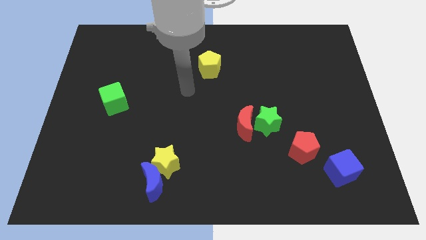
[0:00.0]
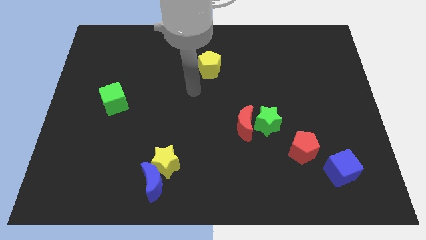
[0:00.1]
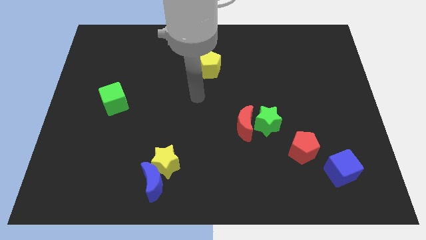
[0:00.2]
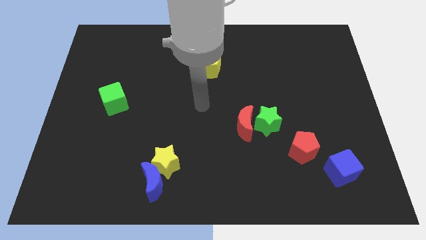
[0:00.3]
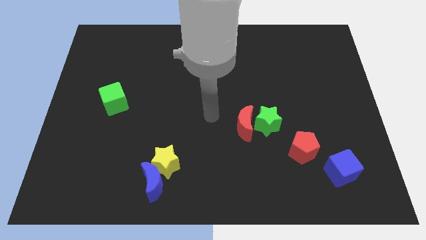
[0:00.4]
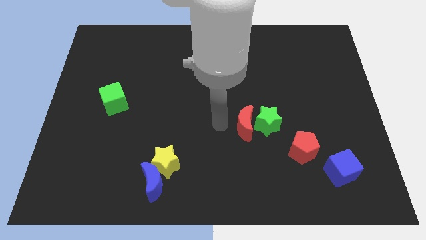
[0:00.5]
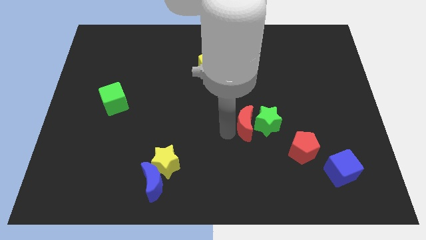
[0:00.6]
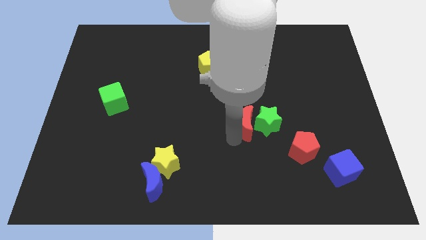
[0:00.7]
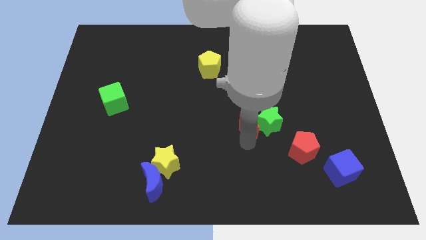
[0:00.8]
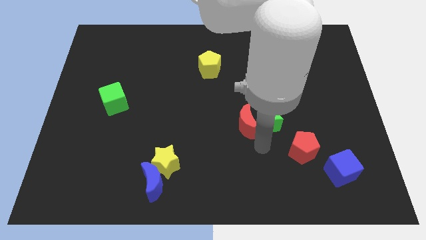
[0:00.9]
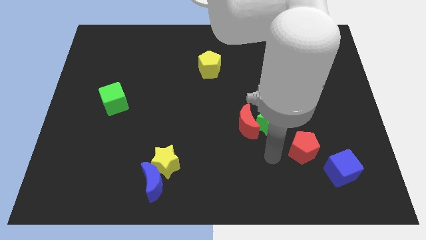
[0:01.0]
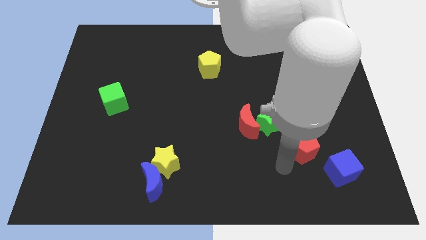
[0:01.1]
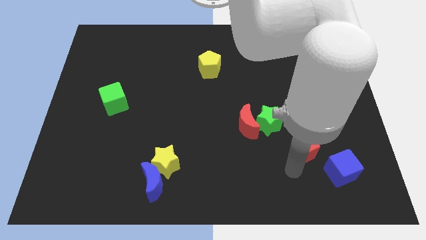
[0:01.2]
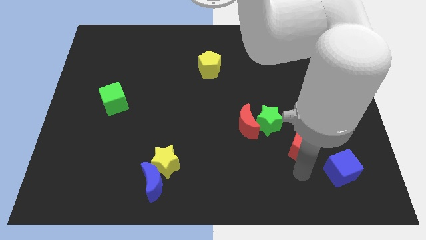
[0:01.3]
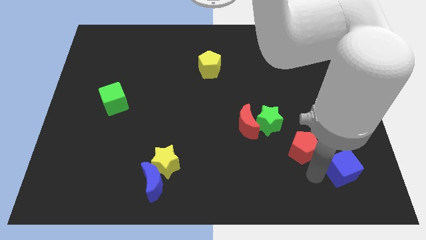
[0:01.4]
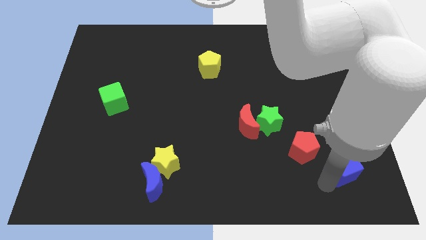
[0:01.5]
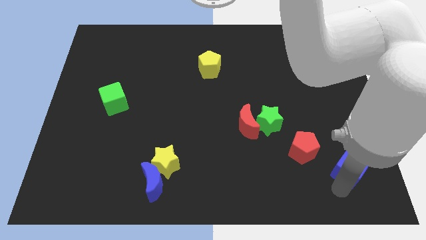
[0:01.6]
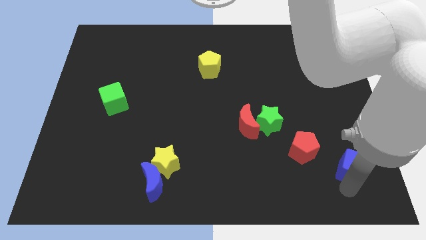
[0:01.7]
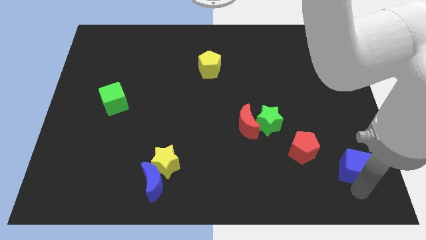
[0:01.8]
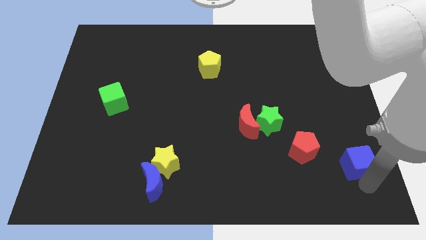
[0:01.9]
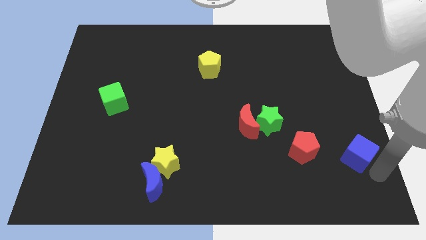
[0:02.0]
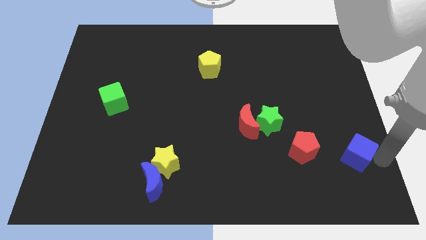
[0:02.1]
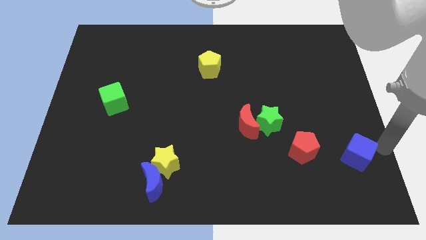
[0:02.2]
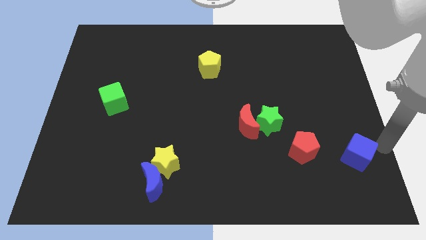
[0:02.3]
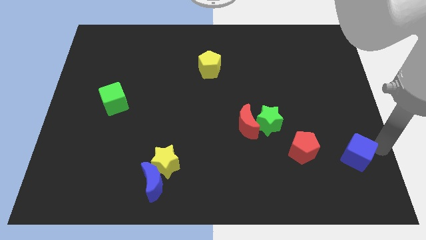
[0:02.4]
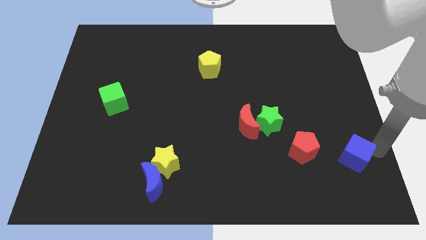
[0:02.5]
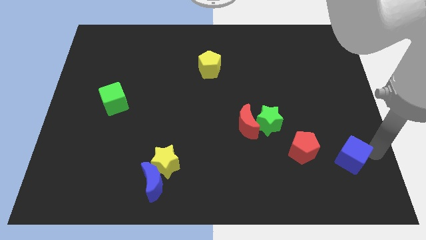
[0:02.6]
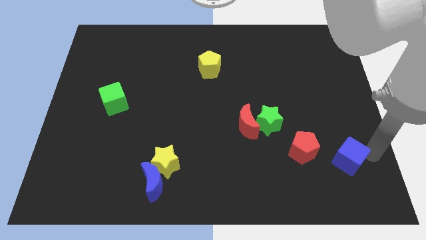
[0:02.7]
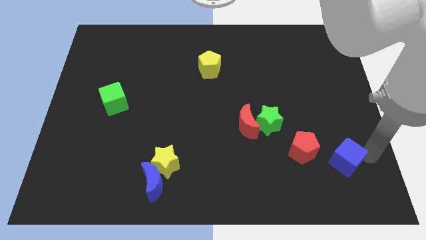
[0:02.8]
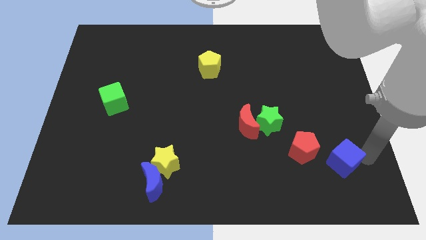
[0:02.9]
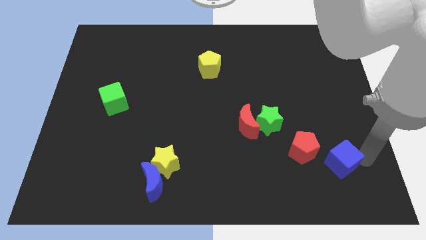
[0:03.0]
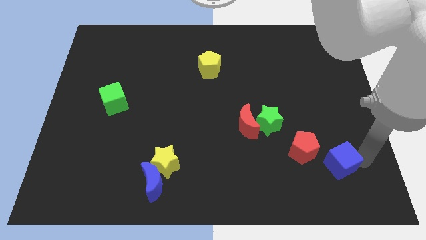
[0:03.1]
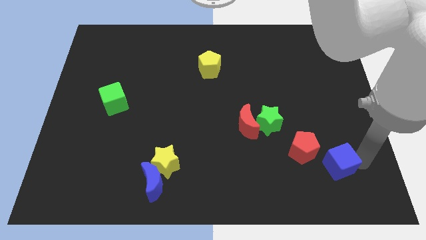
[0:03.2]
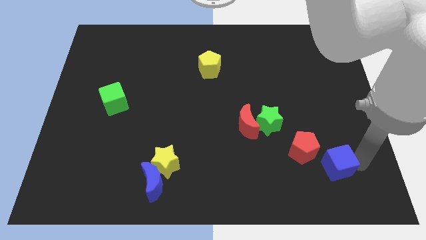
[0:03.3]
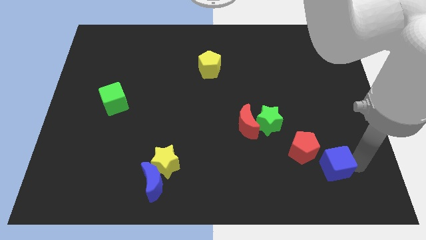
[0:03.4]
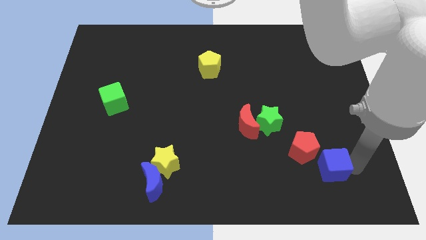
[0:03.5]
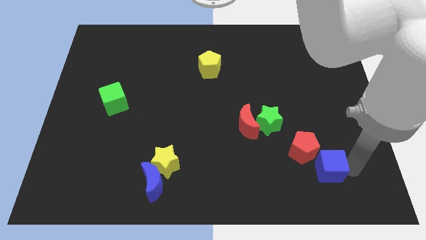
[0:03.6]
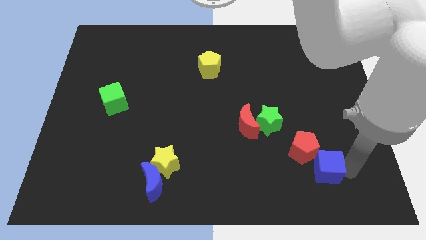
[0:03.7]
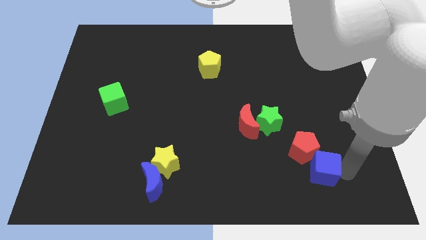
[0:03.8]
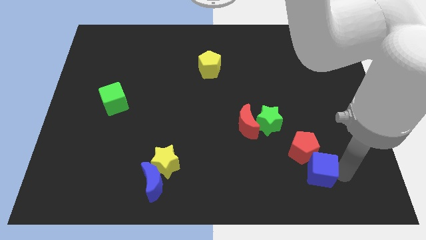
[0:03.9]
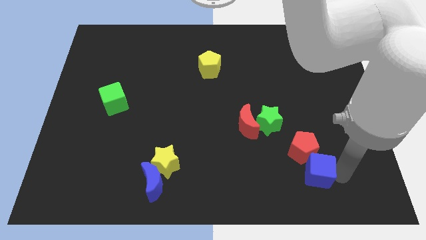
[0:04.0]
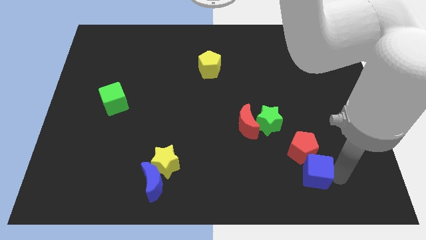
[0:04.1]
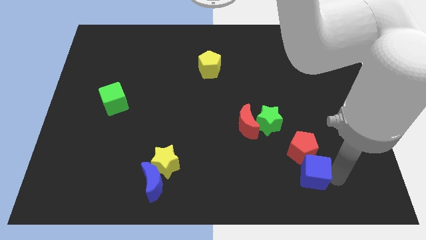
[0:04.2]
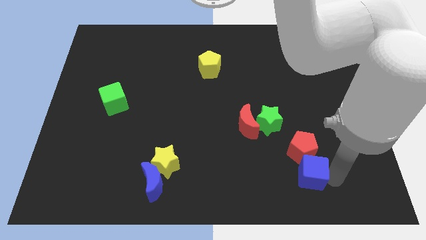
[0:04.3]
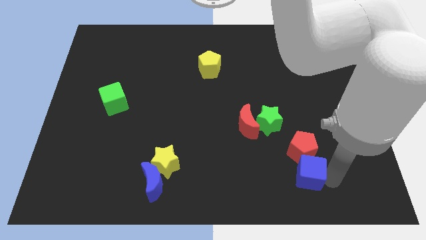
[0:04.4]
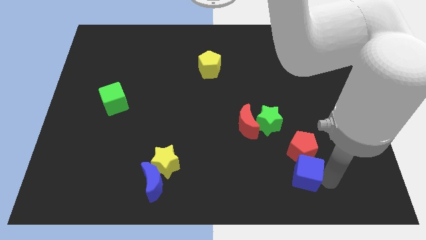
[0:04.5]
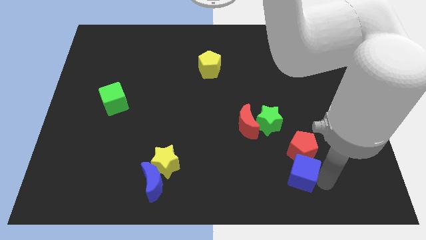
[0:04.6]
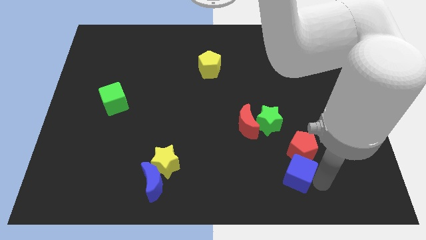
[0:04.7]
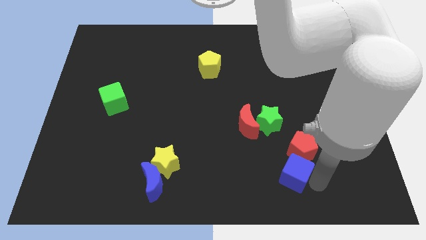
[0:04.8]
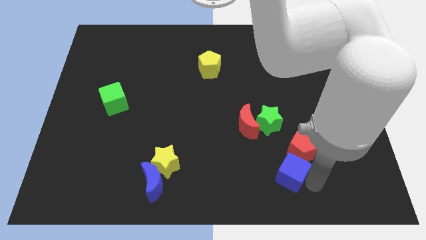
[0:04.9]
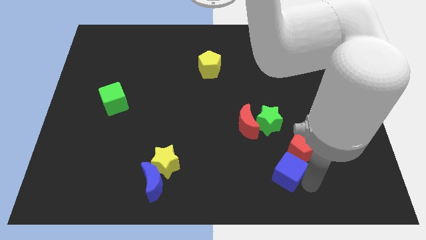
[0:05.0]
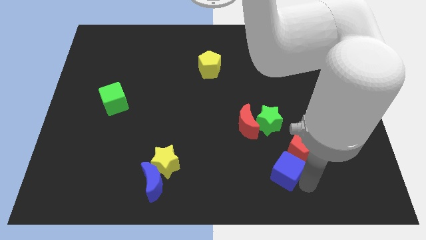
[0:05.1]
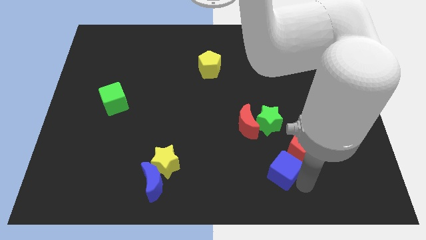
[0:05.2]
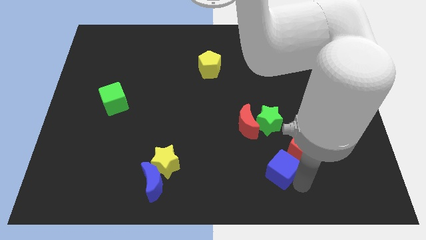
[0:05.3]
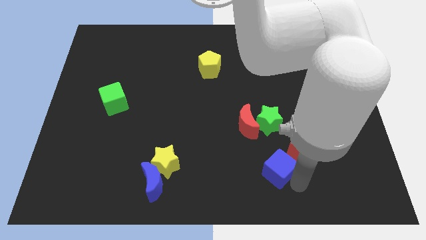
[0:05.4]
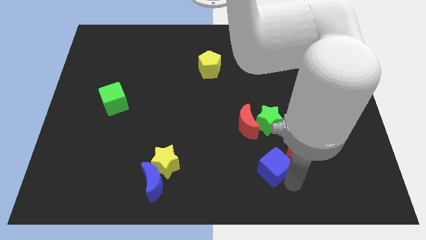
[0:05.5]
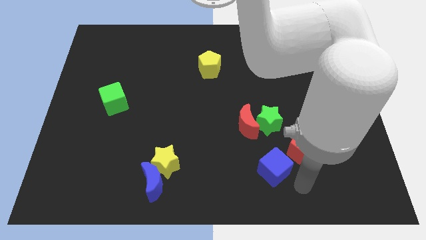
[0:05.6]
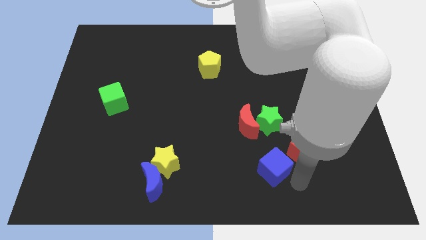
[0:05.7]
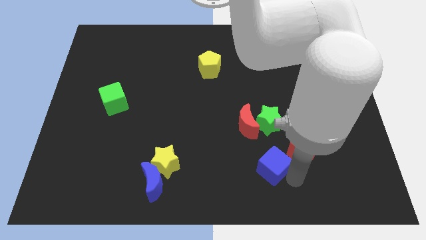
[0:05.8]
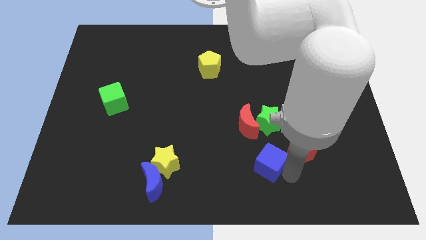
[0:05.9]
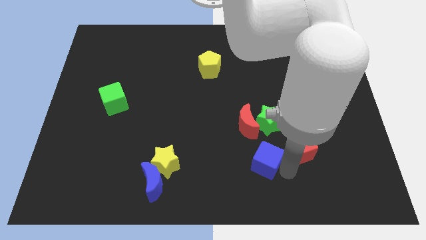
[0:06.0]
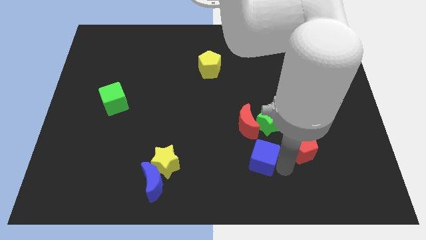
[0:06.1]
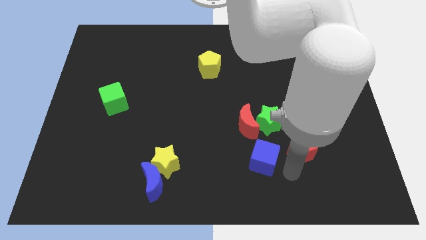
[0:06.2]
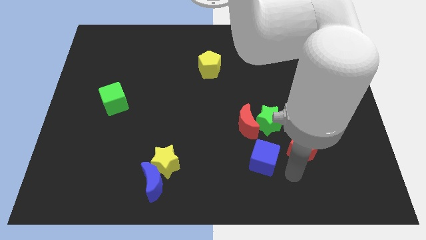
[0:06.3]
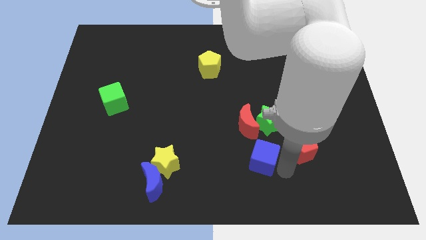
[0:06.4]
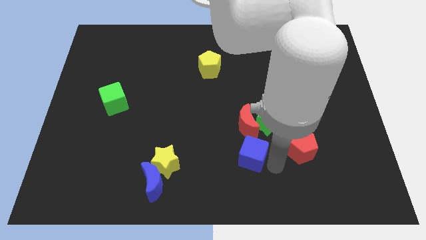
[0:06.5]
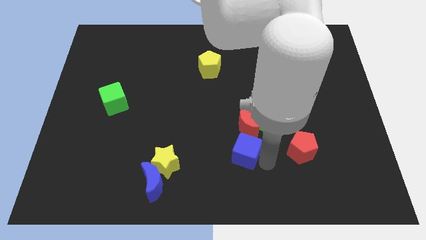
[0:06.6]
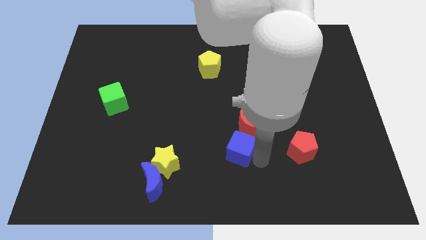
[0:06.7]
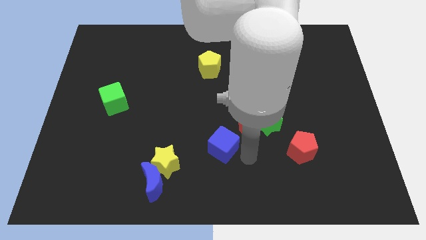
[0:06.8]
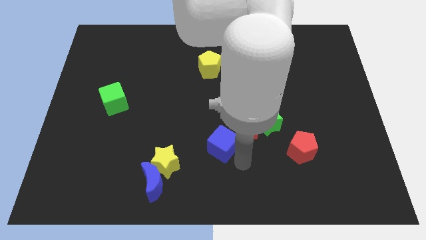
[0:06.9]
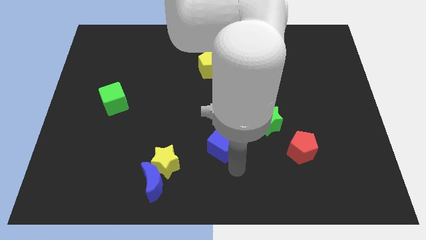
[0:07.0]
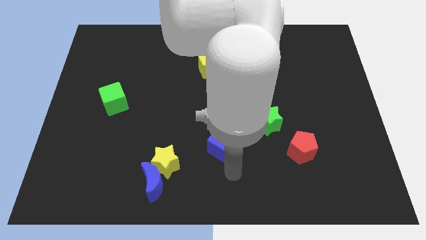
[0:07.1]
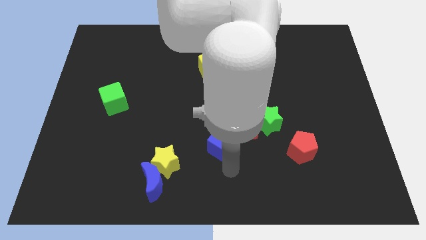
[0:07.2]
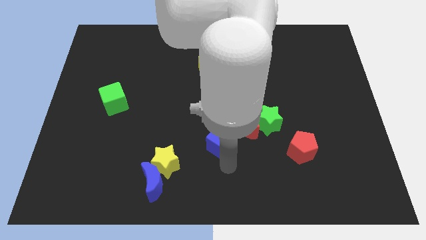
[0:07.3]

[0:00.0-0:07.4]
put the blue cube to the center
